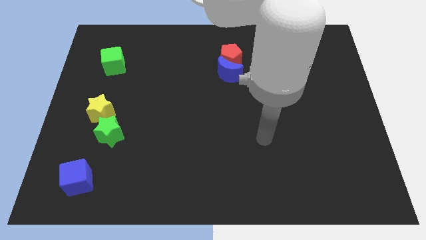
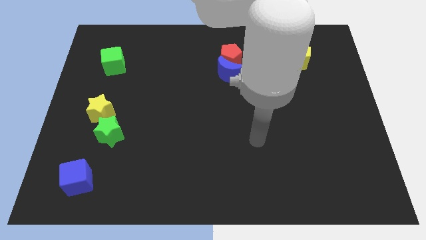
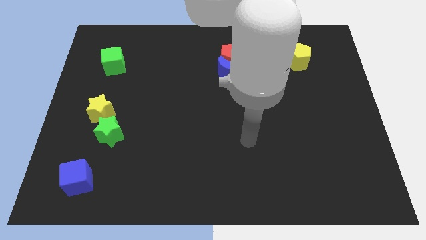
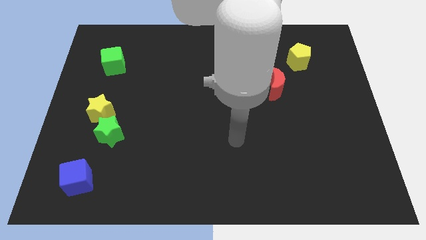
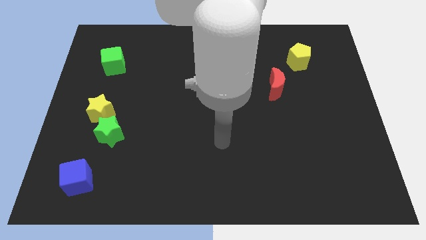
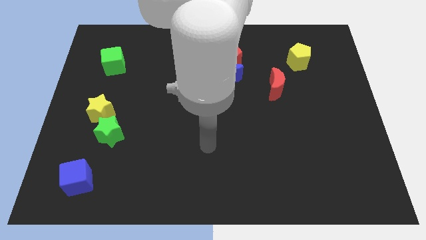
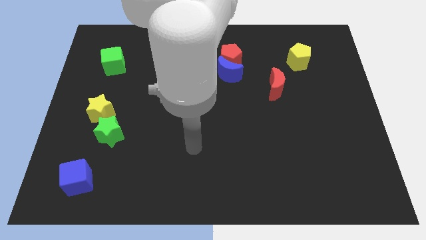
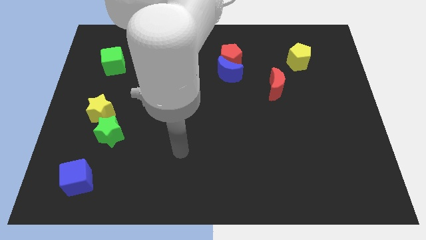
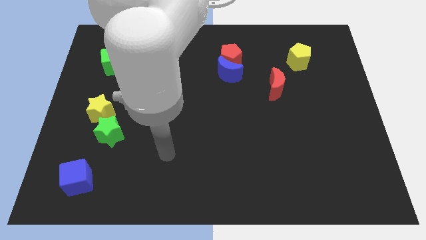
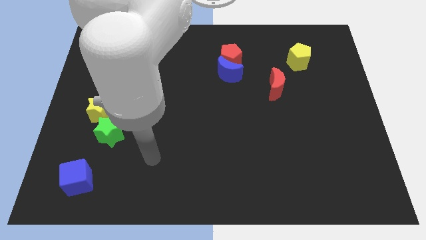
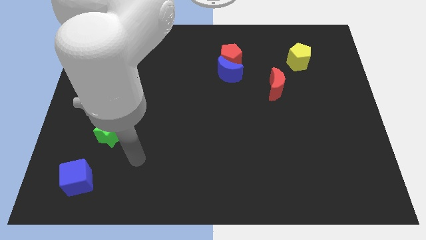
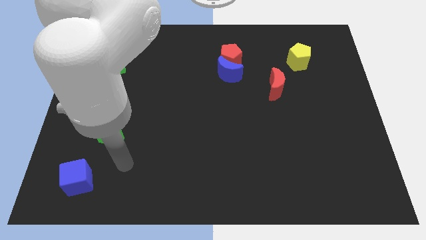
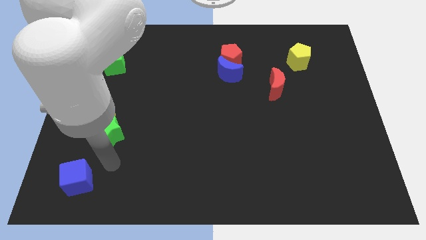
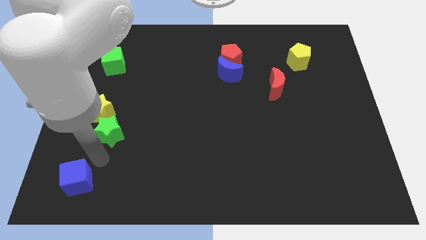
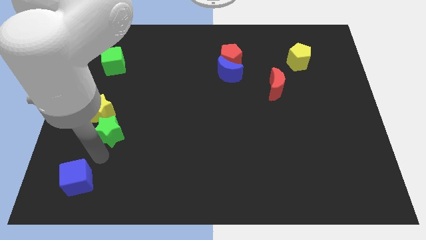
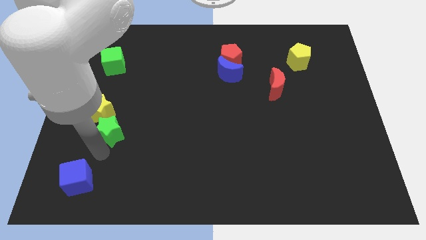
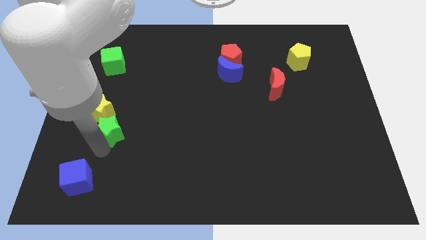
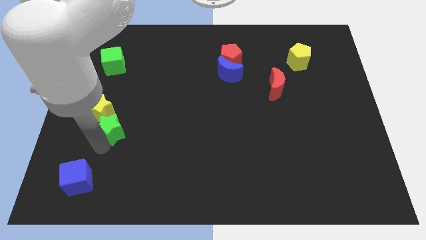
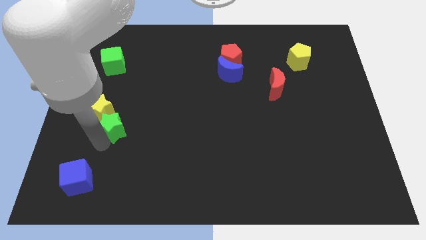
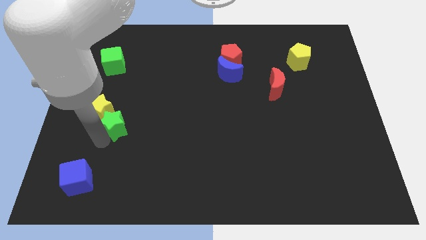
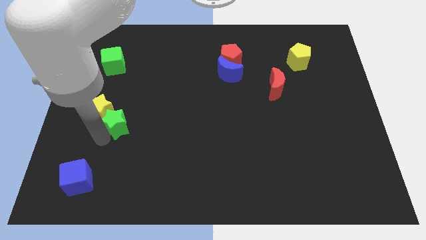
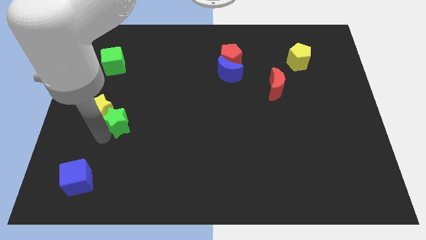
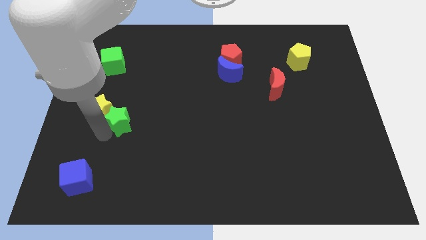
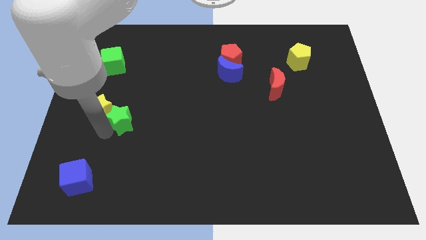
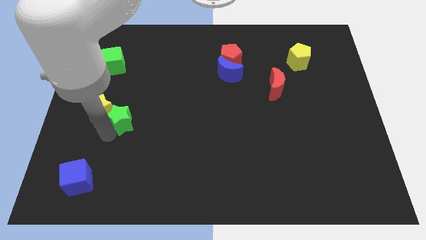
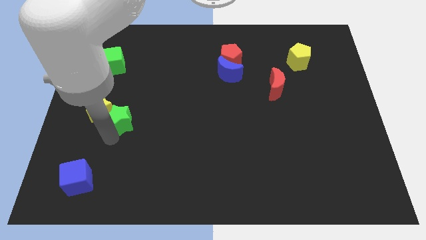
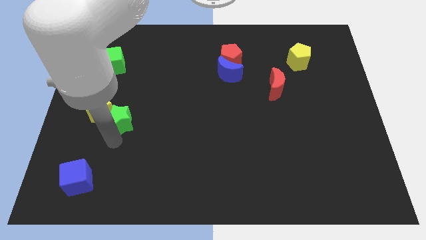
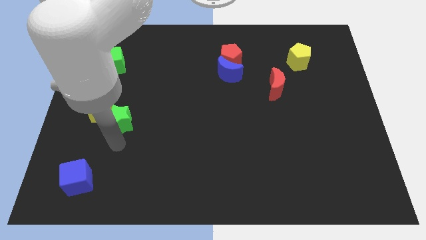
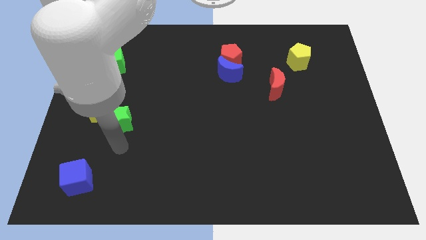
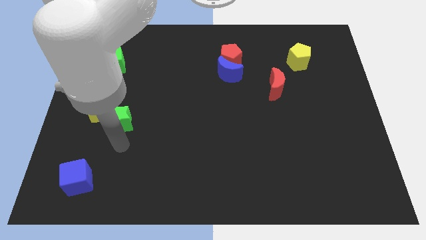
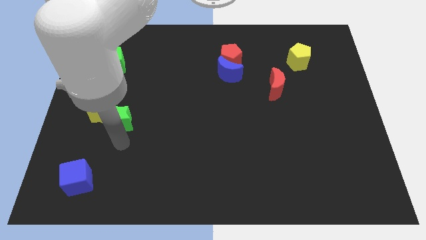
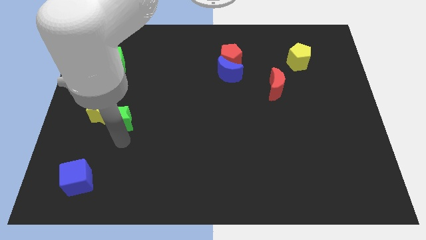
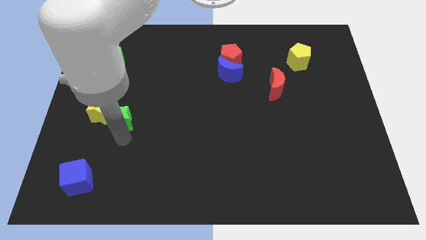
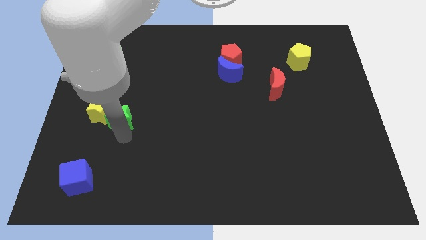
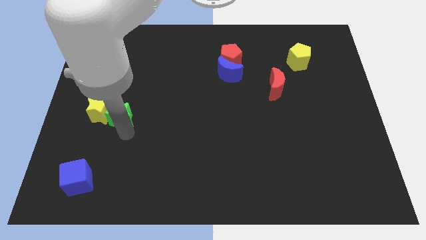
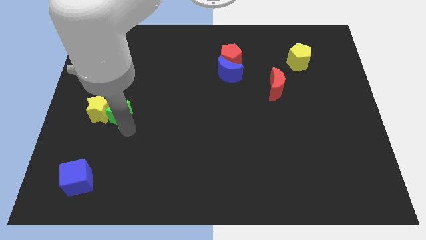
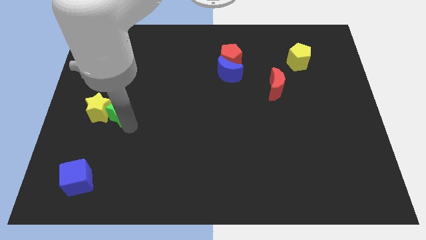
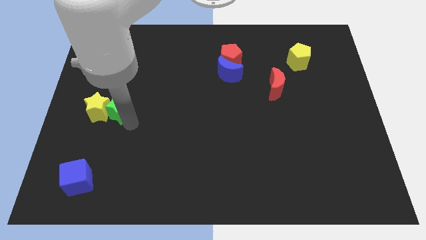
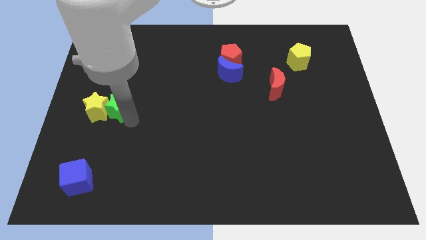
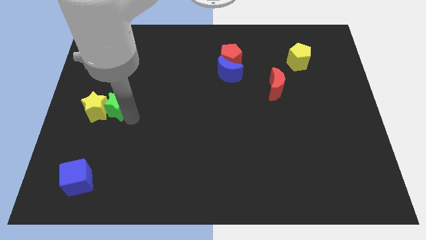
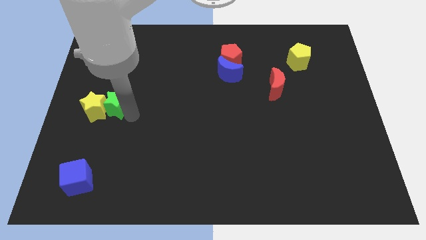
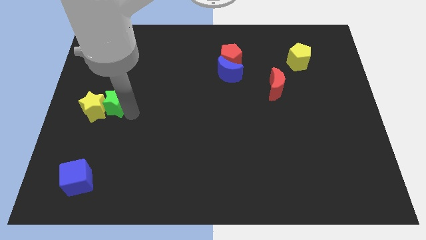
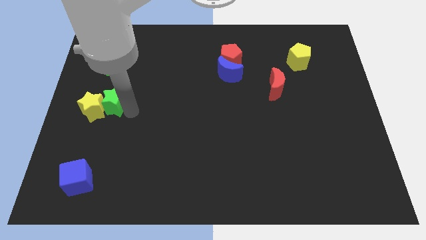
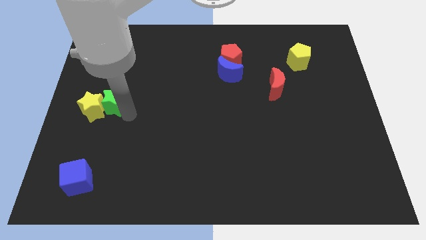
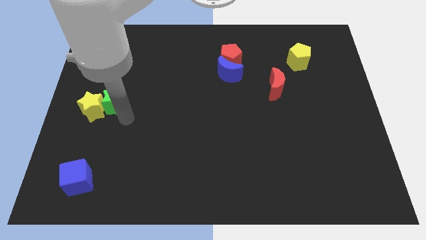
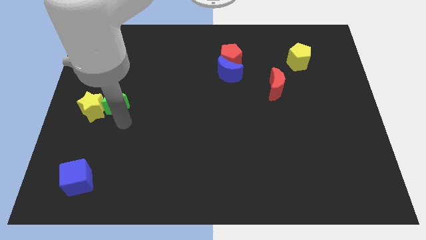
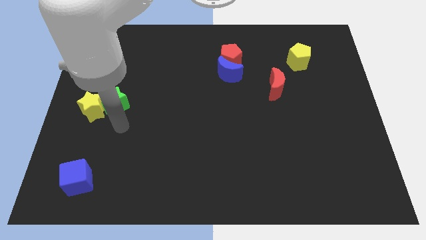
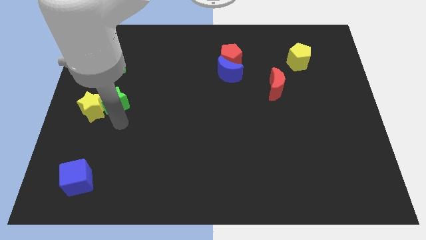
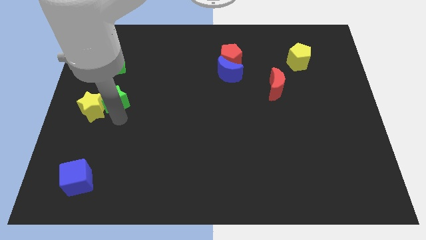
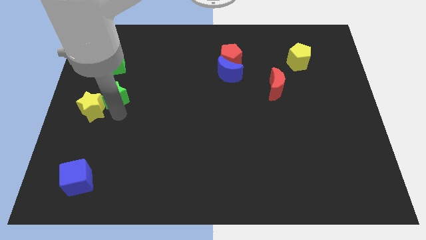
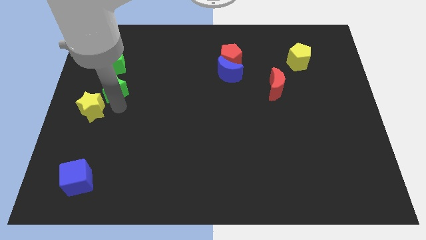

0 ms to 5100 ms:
push the green star above the yellow star

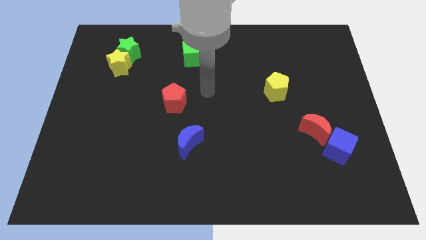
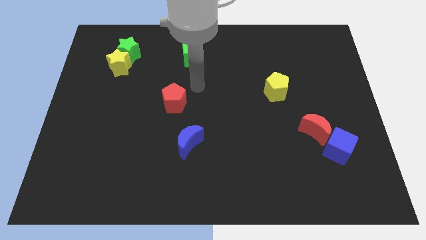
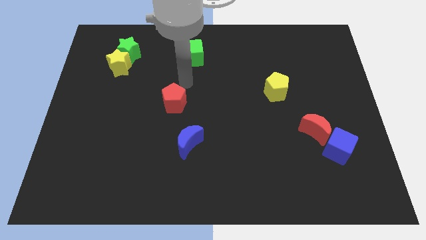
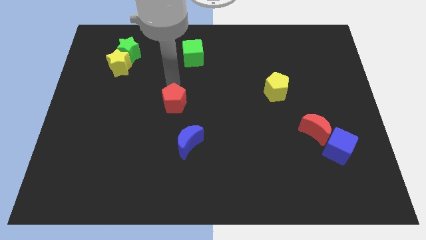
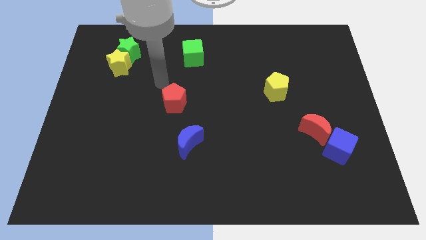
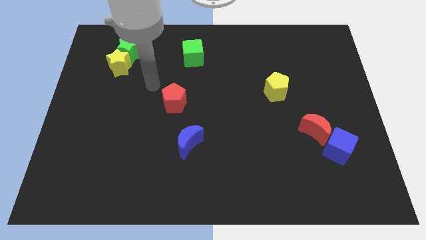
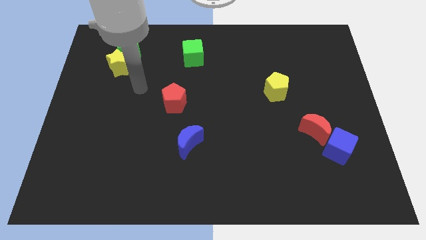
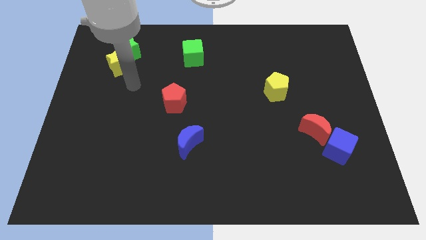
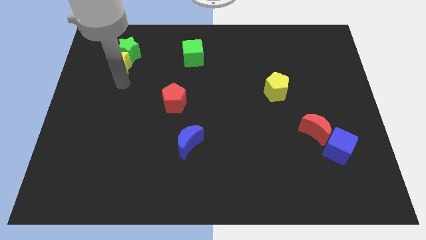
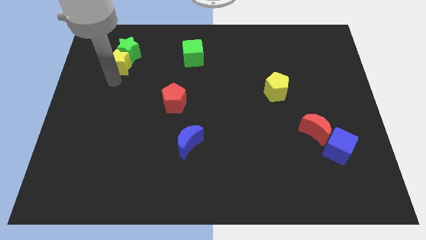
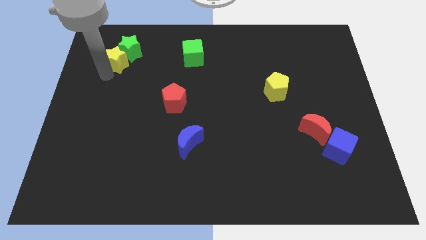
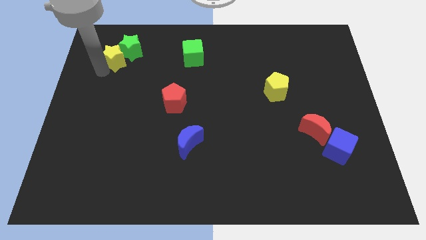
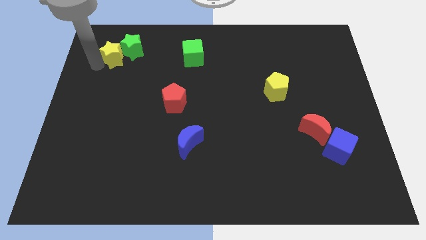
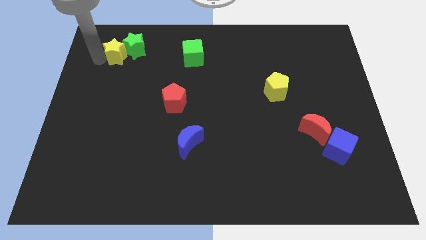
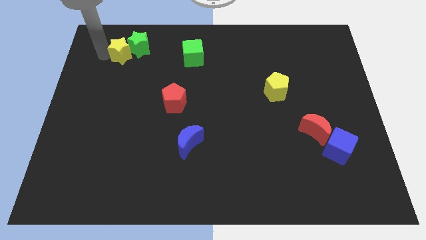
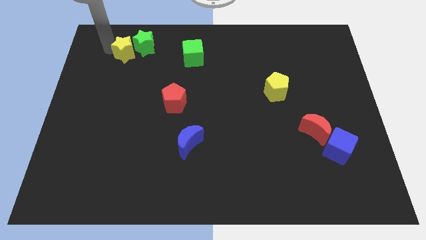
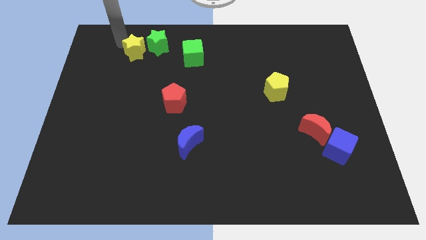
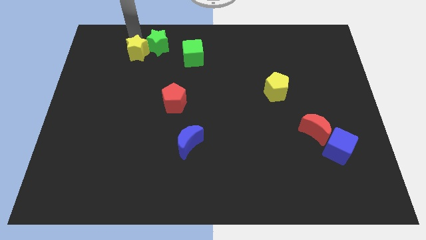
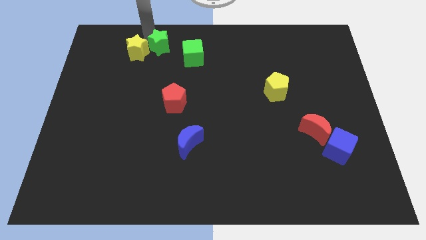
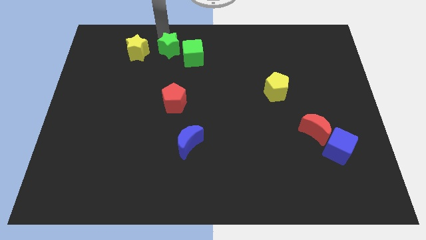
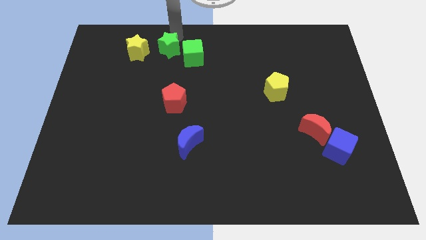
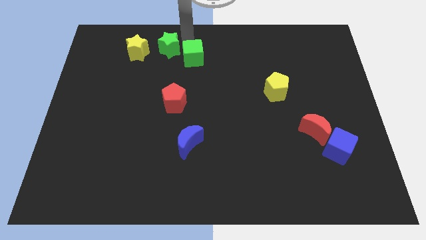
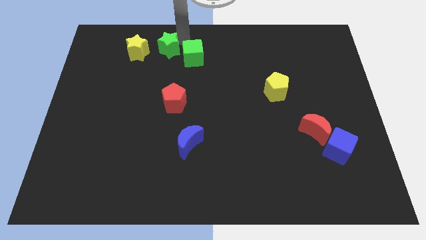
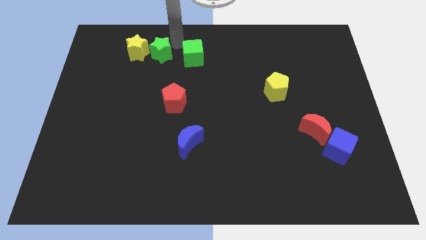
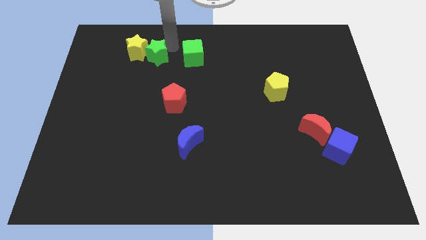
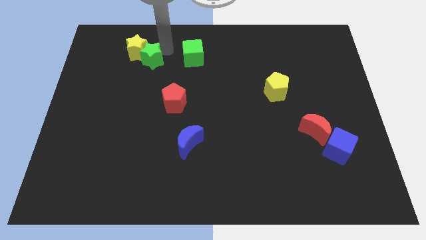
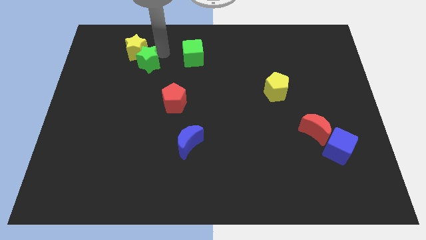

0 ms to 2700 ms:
move the green star to the bottom right of the yellow star

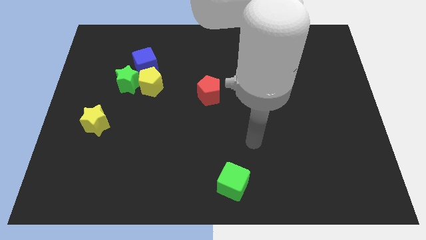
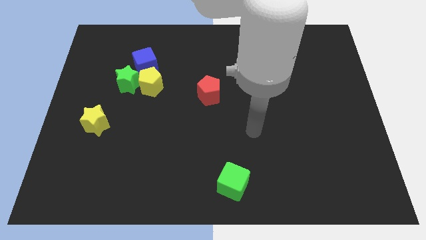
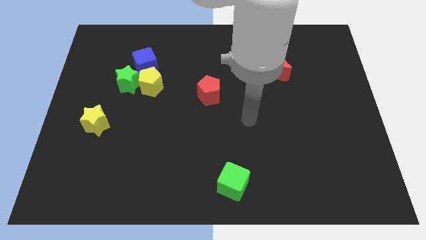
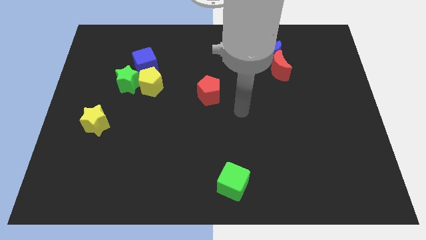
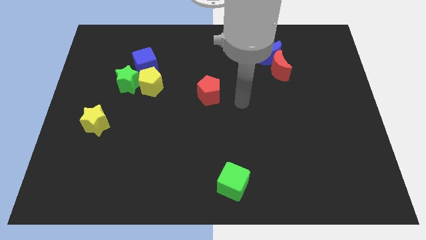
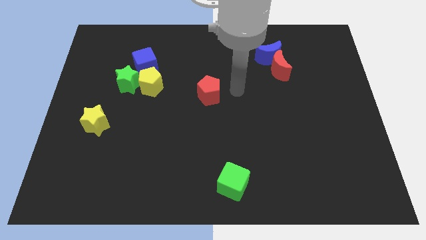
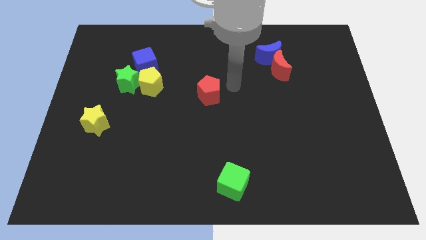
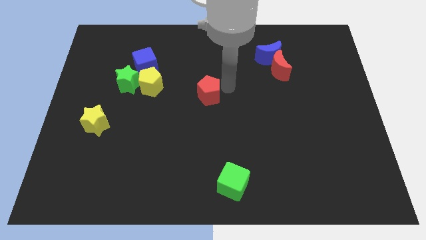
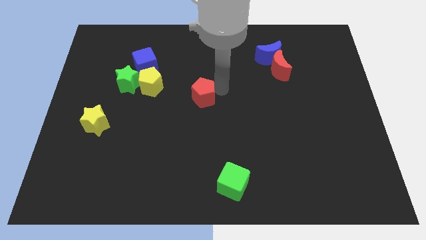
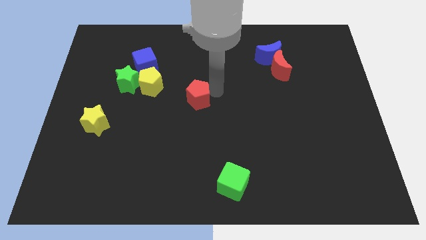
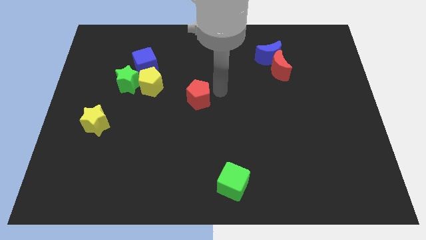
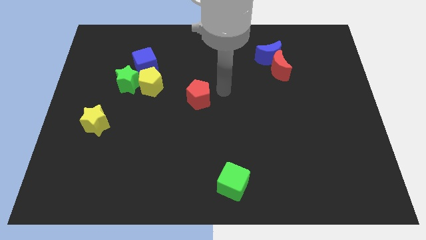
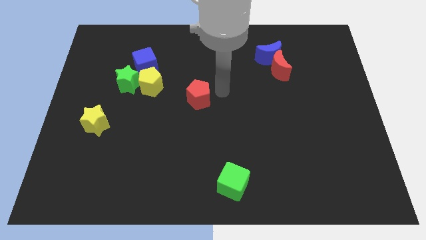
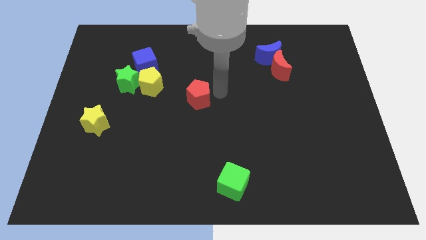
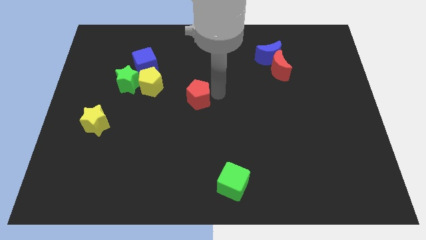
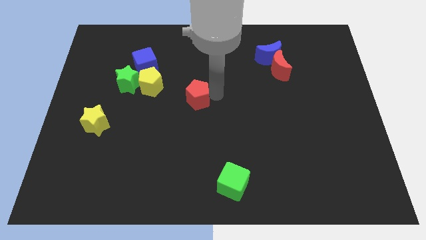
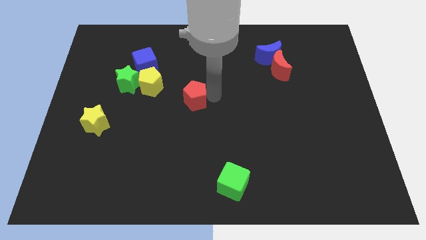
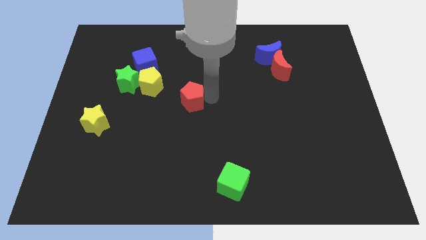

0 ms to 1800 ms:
slide the red pentagon to the bottom right of the yellow pentagon
